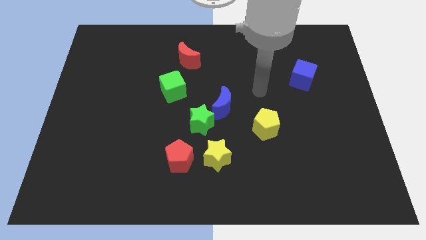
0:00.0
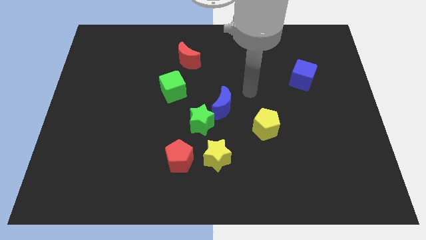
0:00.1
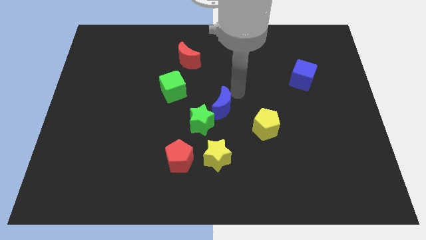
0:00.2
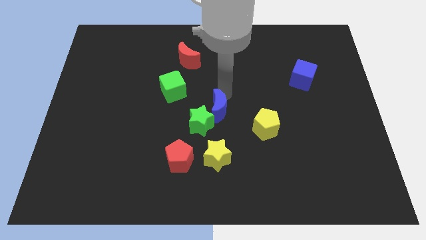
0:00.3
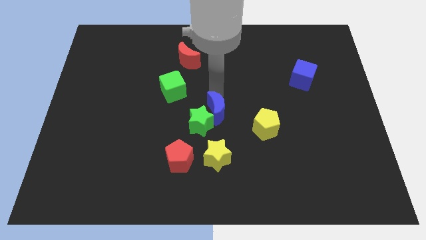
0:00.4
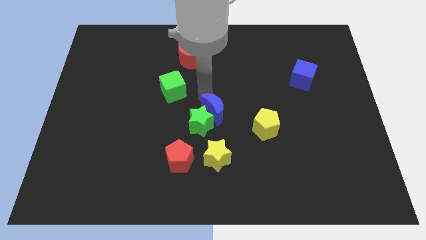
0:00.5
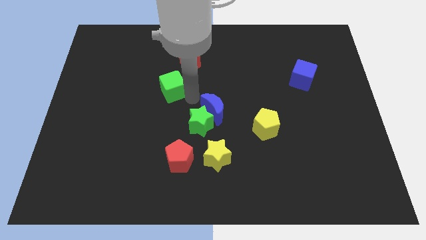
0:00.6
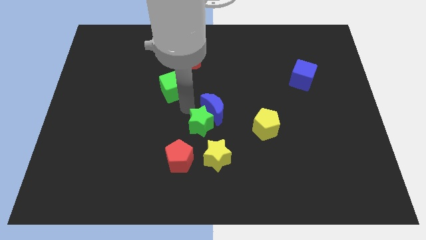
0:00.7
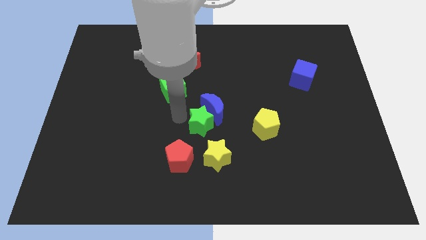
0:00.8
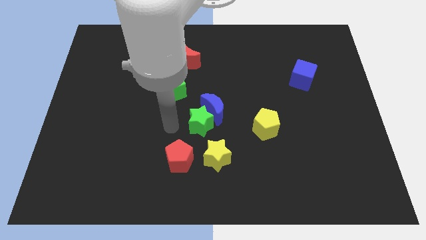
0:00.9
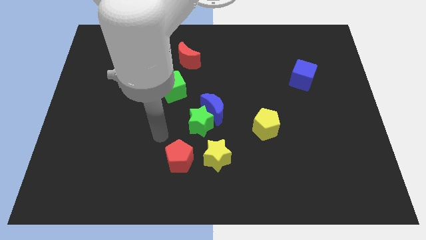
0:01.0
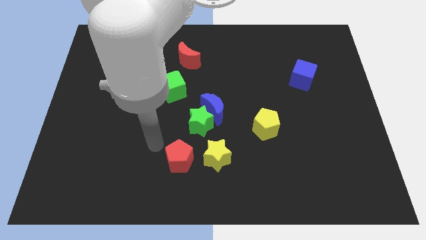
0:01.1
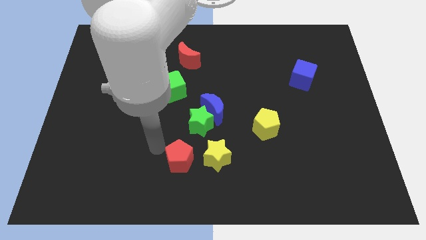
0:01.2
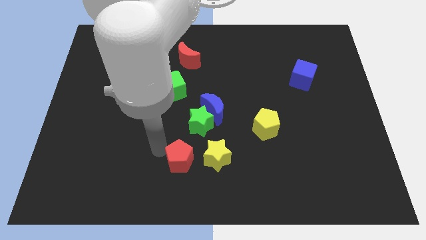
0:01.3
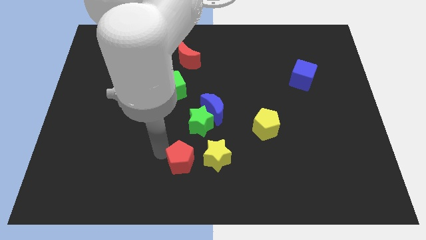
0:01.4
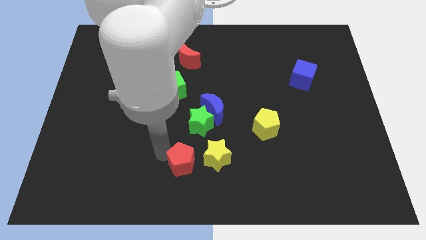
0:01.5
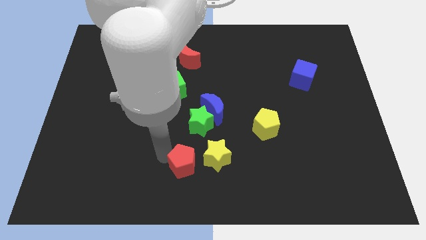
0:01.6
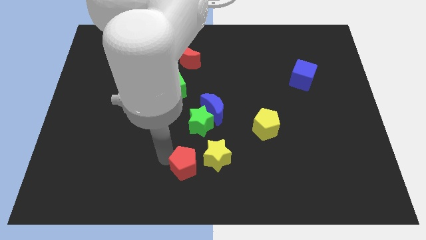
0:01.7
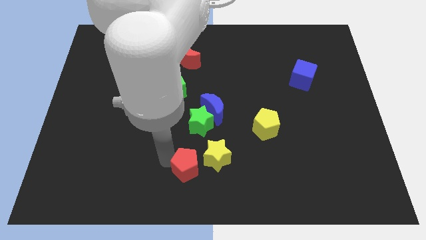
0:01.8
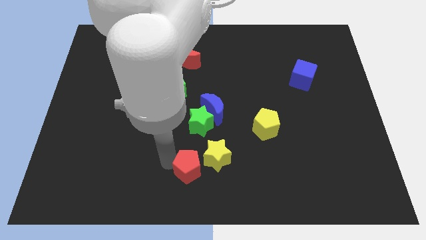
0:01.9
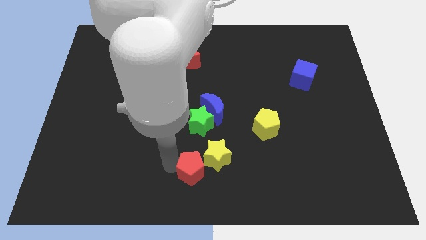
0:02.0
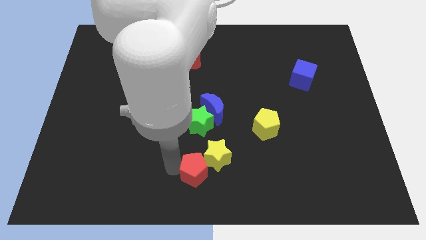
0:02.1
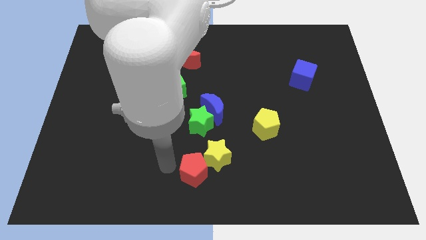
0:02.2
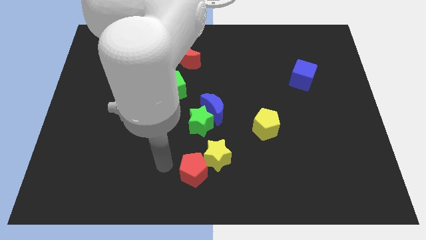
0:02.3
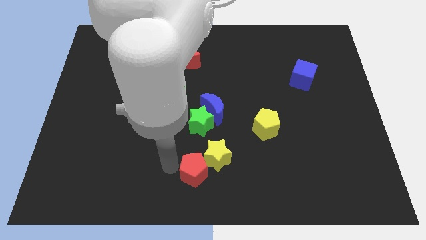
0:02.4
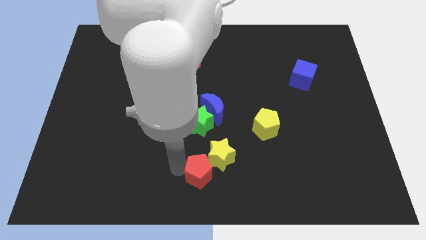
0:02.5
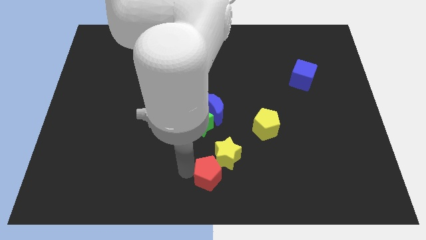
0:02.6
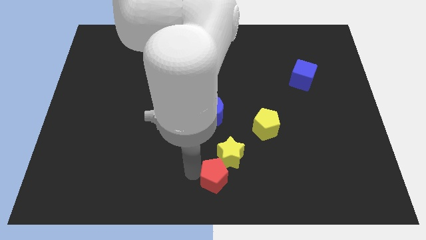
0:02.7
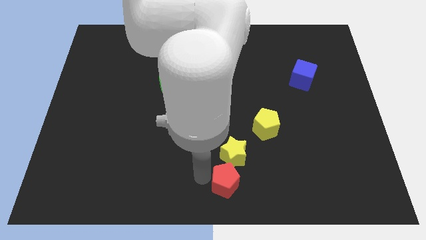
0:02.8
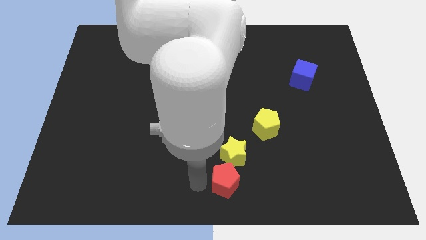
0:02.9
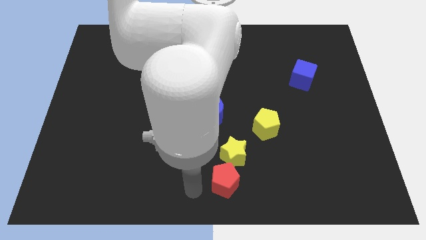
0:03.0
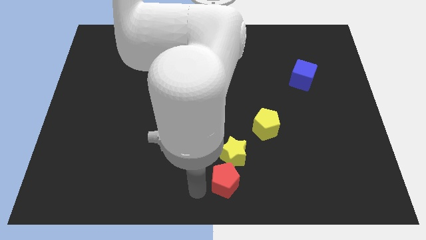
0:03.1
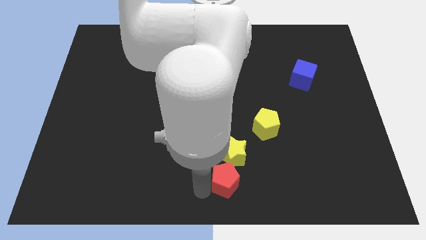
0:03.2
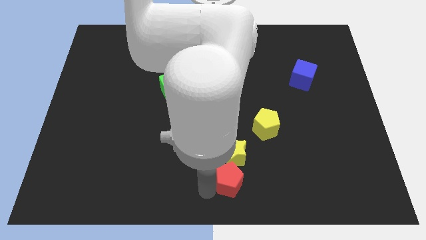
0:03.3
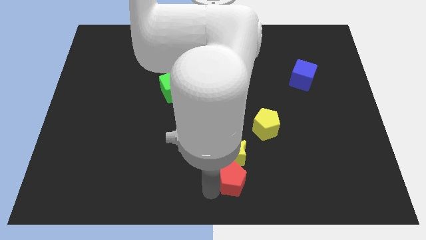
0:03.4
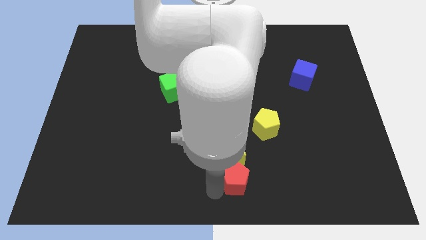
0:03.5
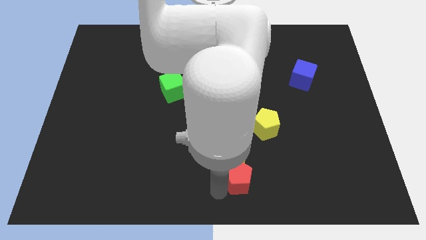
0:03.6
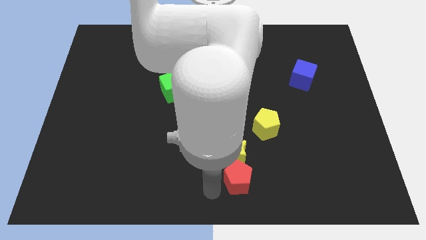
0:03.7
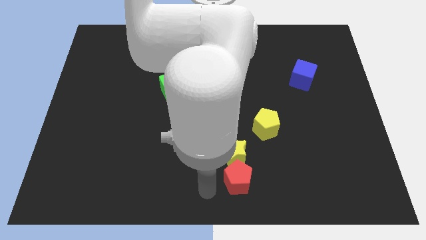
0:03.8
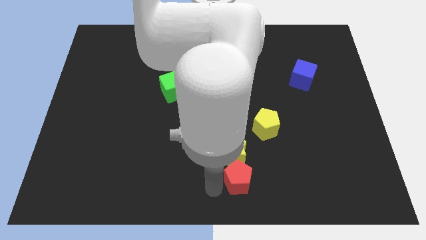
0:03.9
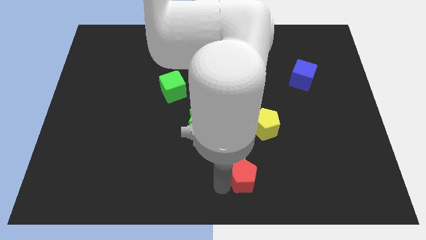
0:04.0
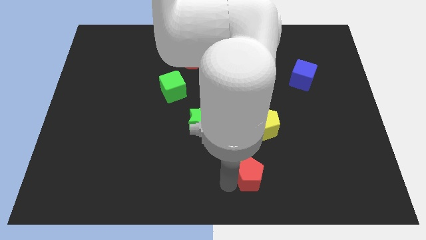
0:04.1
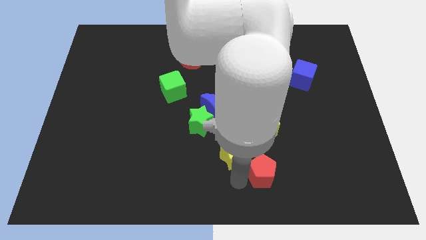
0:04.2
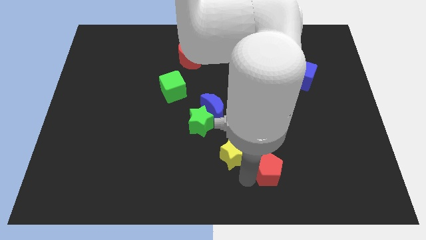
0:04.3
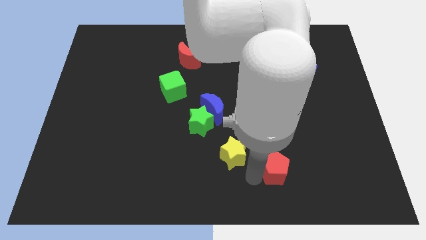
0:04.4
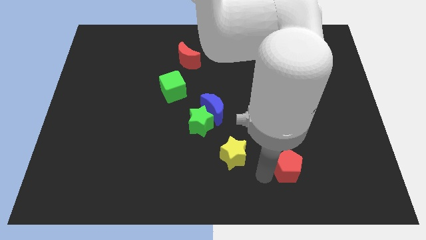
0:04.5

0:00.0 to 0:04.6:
slide the red pentagon right

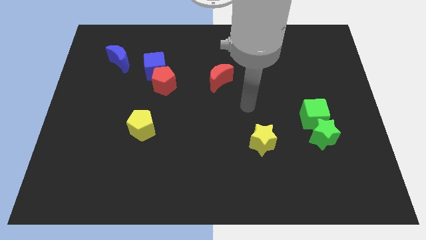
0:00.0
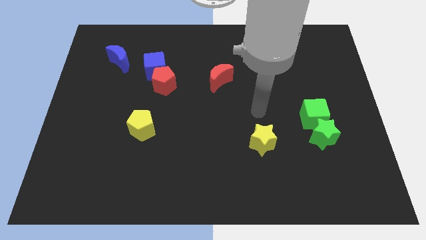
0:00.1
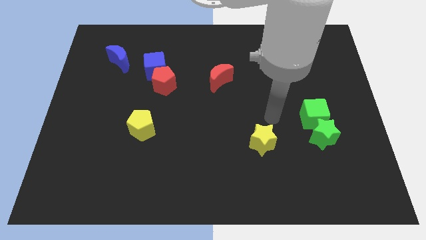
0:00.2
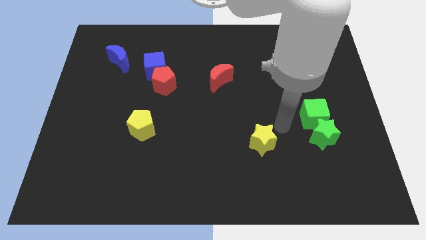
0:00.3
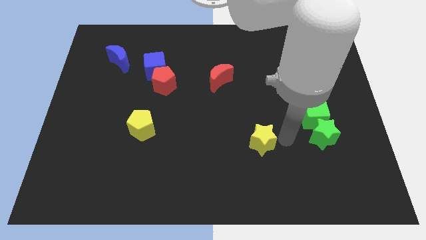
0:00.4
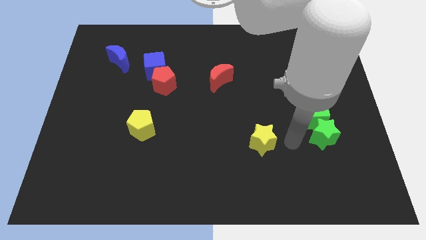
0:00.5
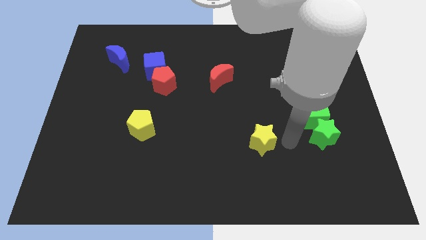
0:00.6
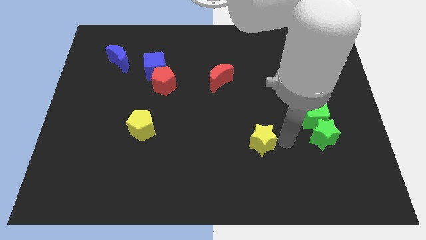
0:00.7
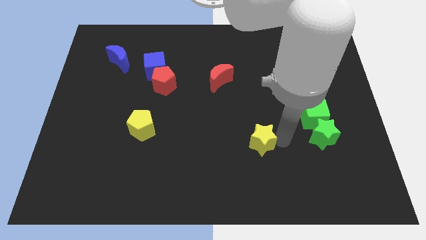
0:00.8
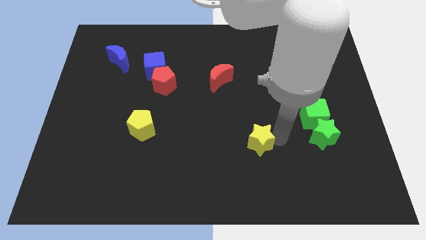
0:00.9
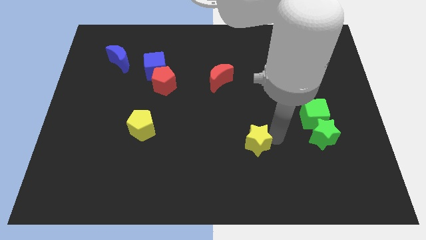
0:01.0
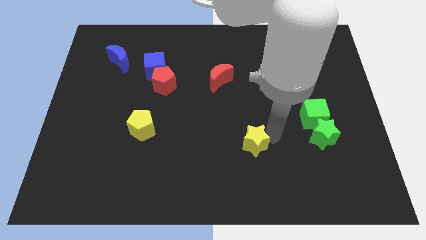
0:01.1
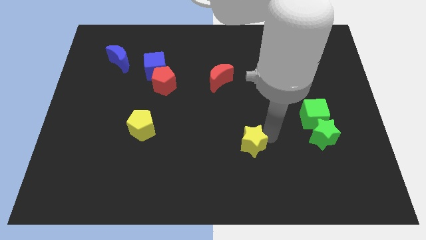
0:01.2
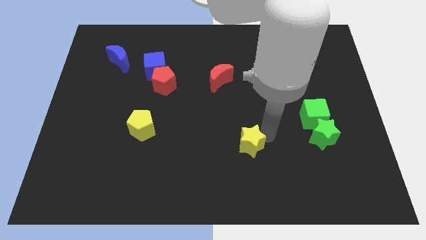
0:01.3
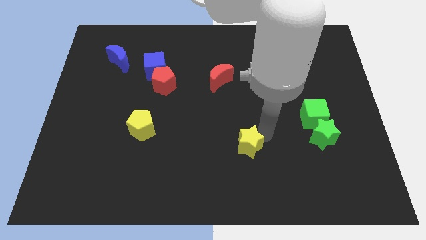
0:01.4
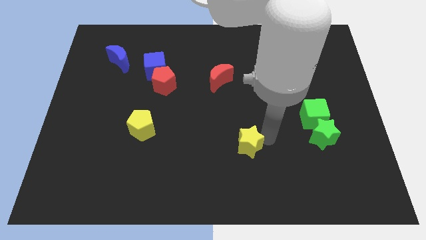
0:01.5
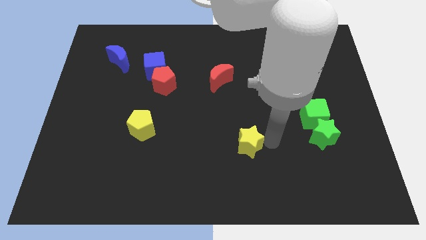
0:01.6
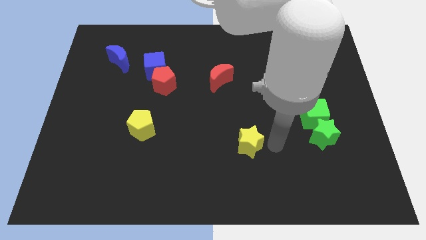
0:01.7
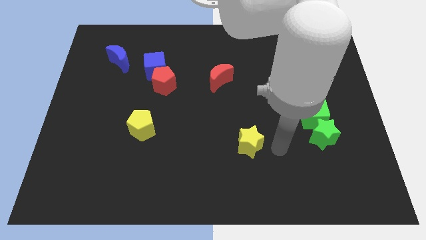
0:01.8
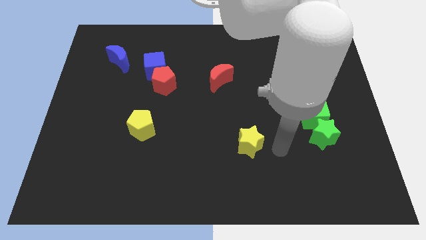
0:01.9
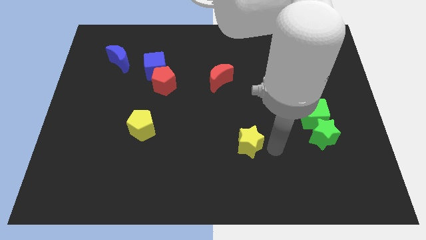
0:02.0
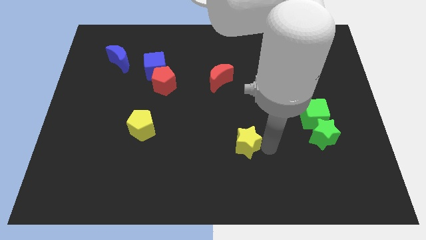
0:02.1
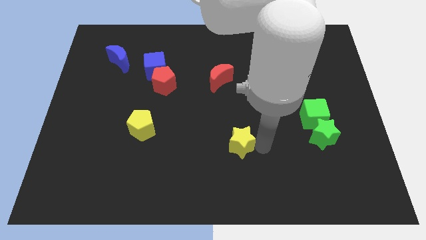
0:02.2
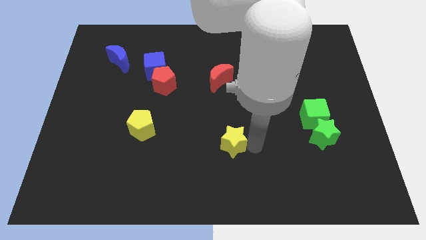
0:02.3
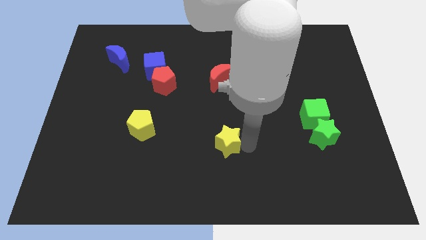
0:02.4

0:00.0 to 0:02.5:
slightly push the yellow star to the left

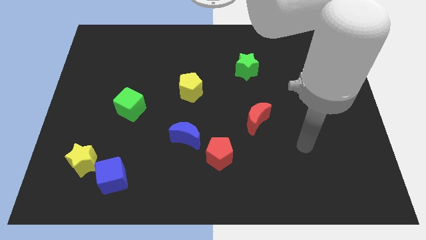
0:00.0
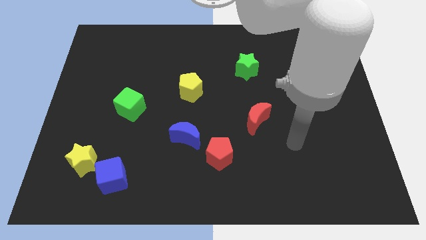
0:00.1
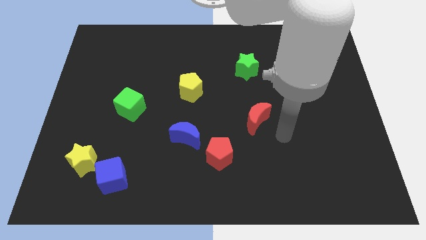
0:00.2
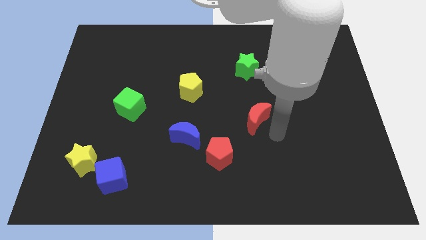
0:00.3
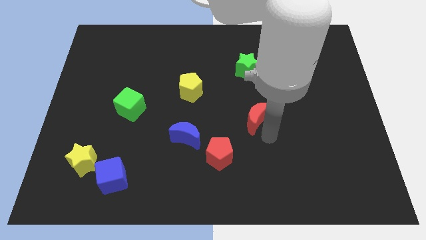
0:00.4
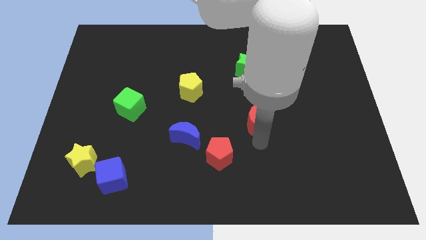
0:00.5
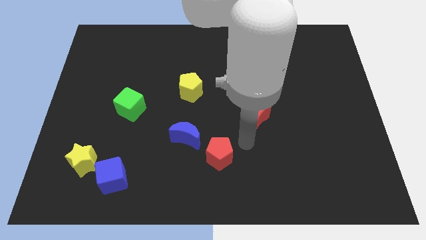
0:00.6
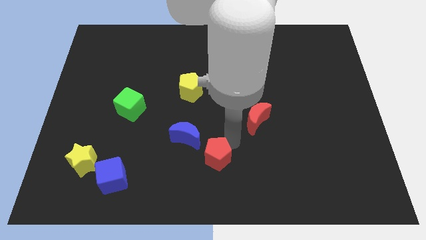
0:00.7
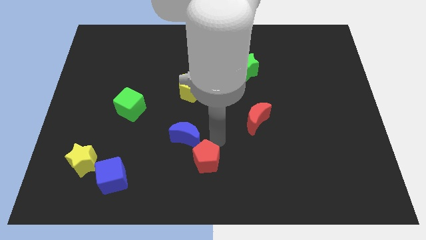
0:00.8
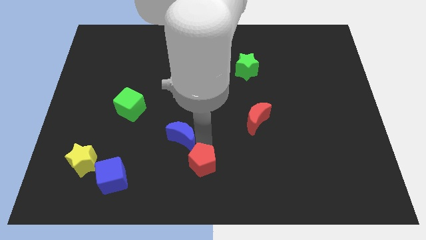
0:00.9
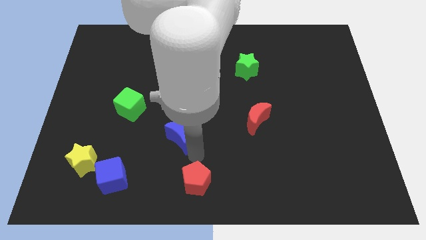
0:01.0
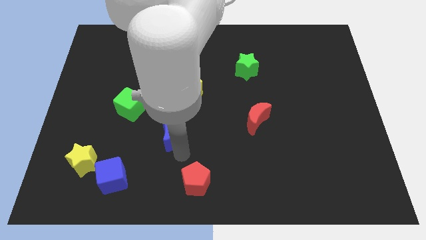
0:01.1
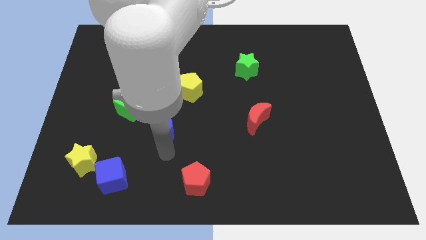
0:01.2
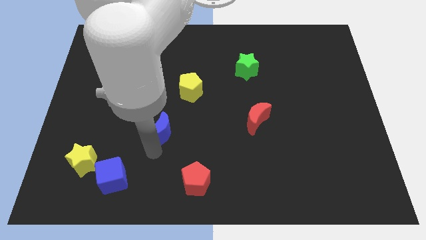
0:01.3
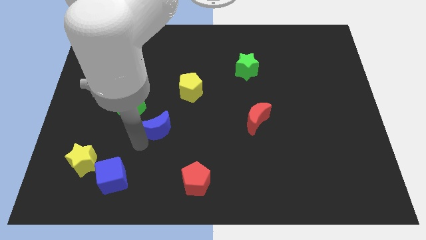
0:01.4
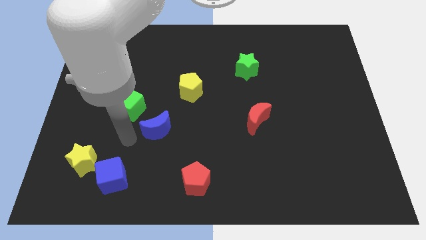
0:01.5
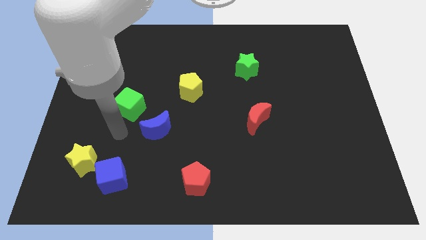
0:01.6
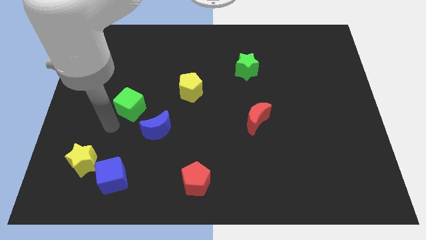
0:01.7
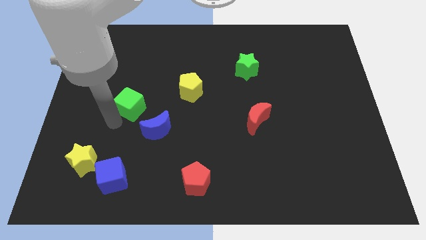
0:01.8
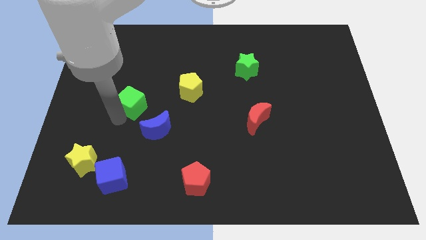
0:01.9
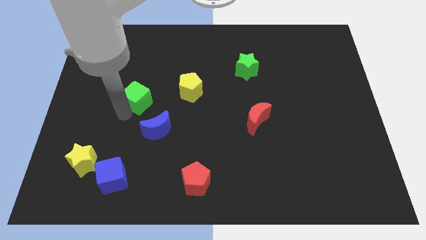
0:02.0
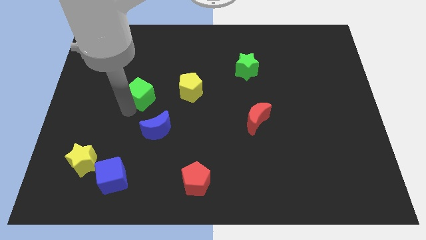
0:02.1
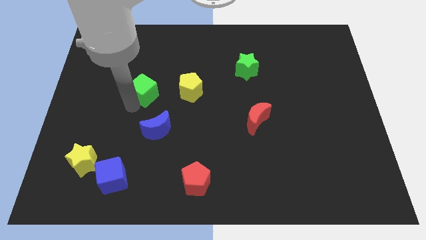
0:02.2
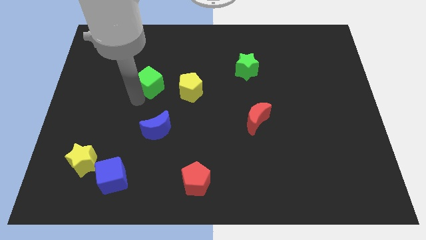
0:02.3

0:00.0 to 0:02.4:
slide the green cube diagonally upwards and to the right a bit
